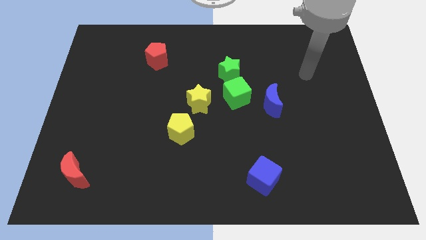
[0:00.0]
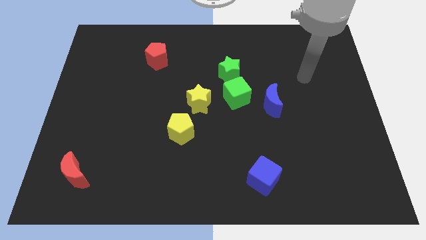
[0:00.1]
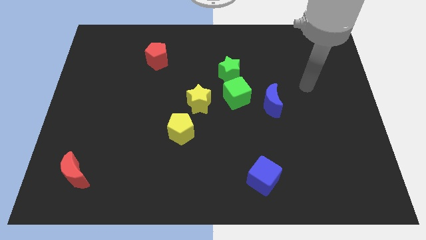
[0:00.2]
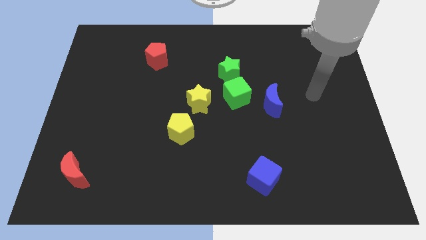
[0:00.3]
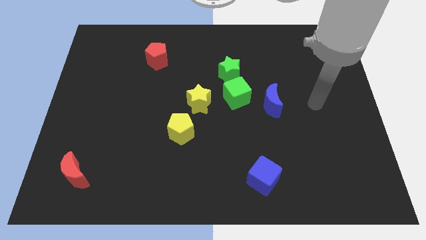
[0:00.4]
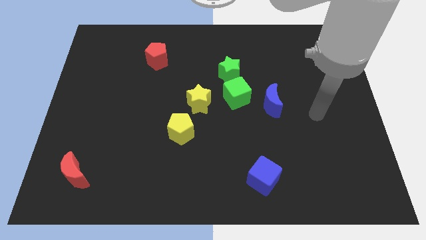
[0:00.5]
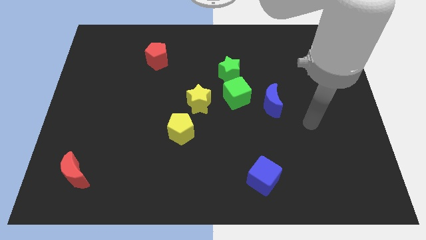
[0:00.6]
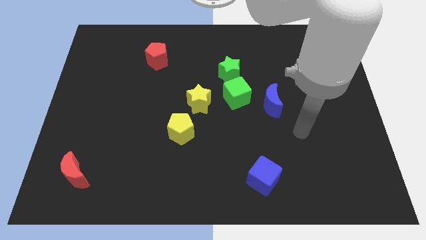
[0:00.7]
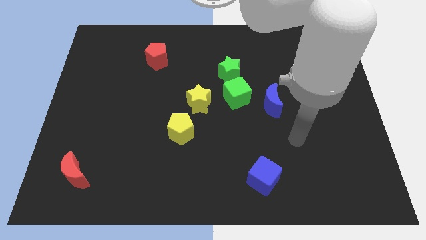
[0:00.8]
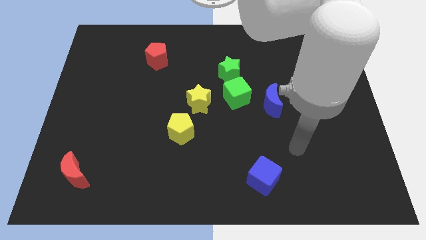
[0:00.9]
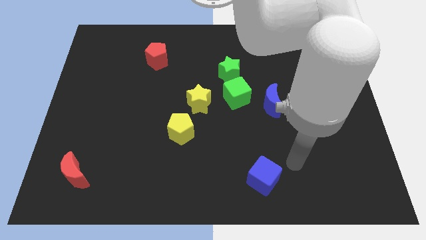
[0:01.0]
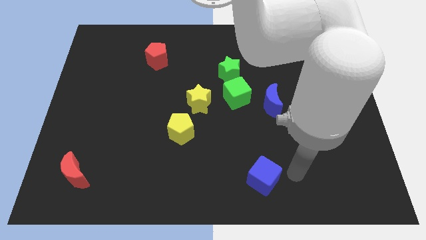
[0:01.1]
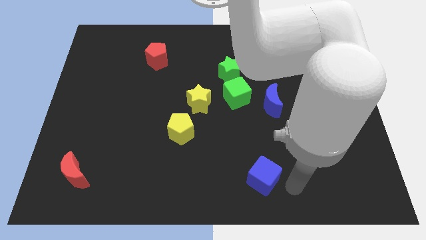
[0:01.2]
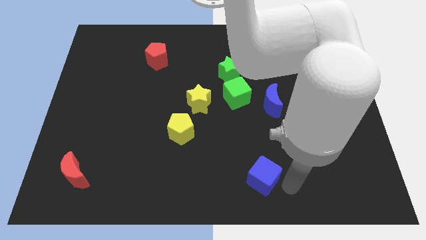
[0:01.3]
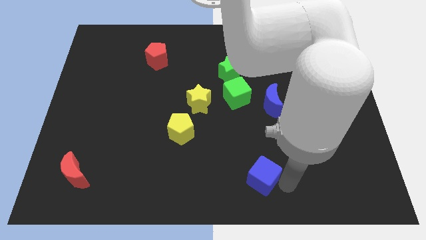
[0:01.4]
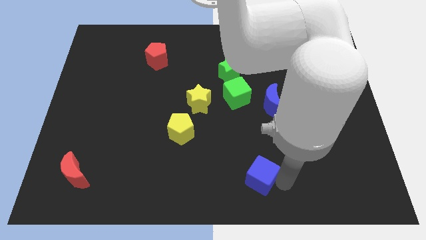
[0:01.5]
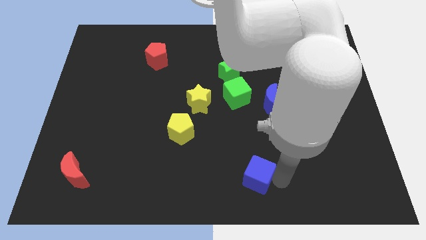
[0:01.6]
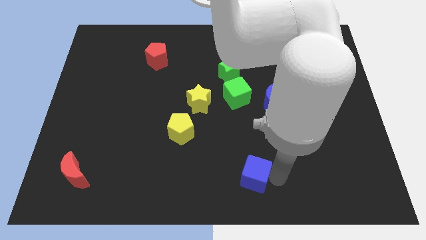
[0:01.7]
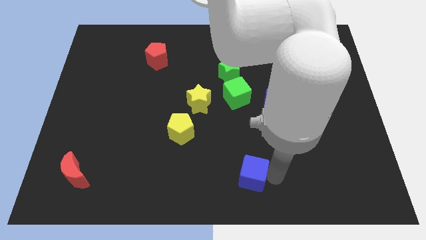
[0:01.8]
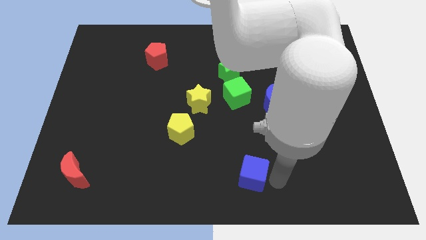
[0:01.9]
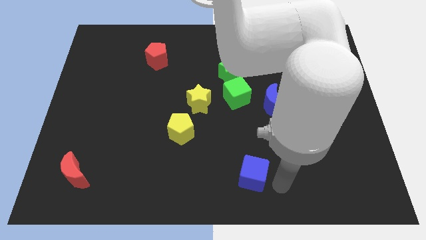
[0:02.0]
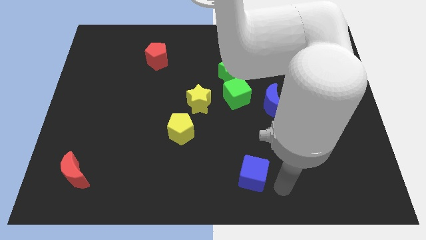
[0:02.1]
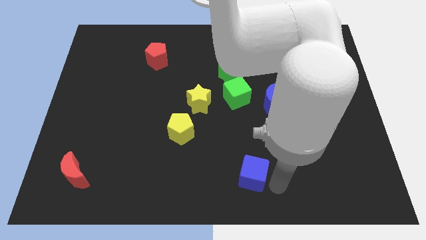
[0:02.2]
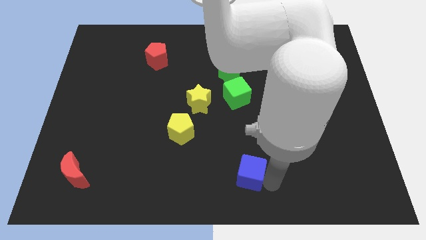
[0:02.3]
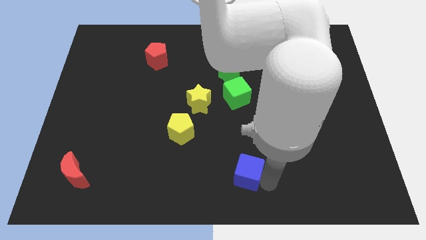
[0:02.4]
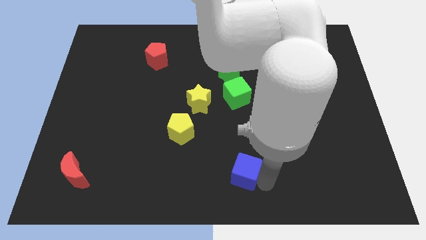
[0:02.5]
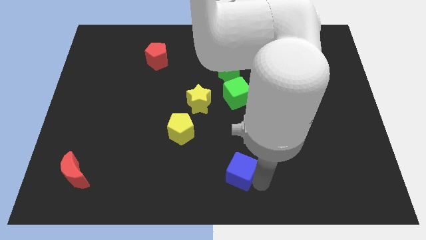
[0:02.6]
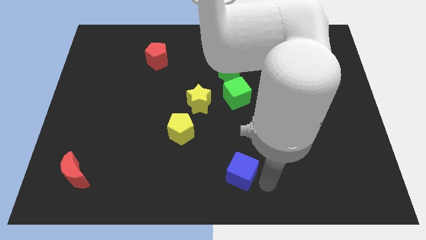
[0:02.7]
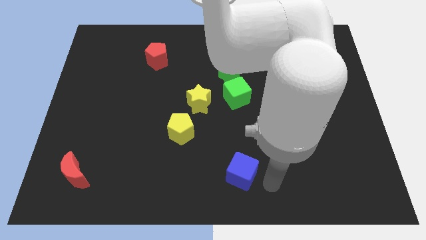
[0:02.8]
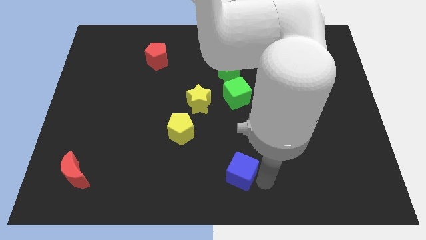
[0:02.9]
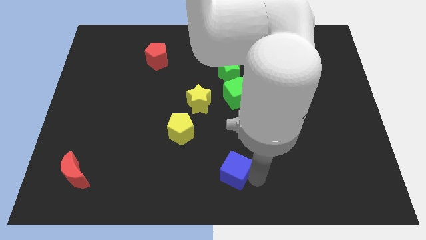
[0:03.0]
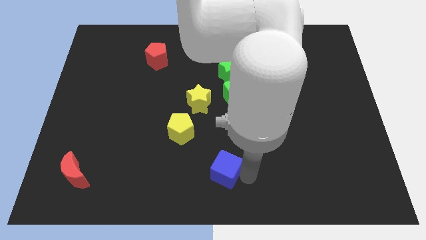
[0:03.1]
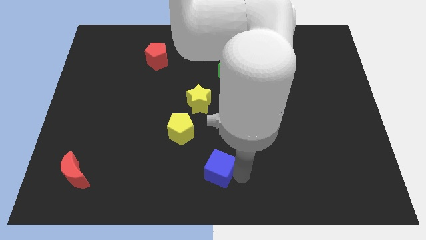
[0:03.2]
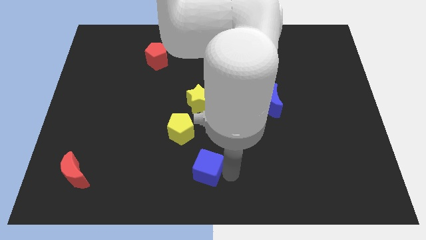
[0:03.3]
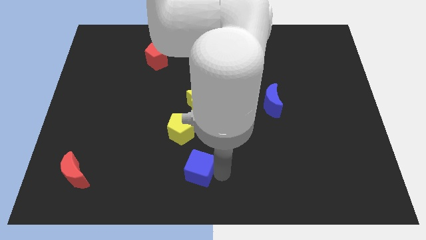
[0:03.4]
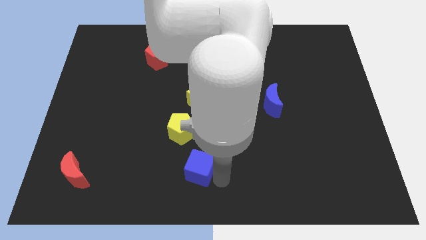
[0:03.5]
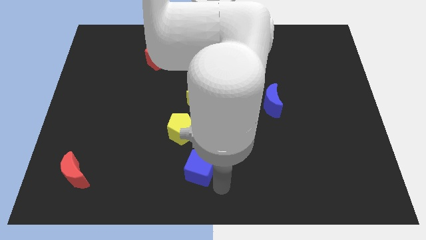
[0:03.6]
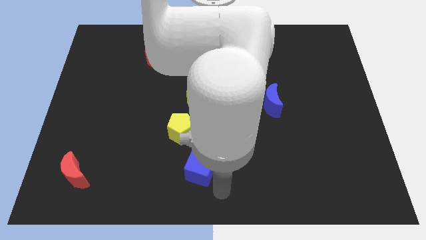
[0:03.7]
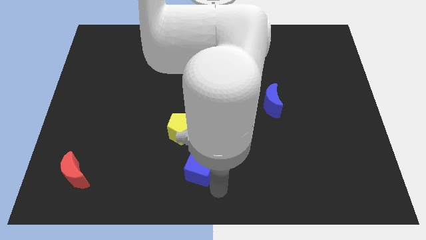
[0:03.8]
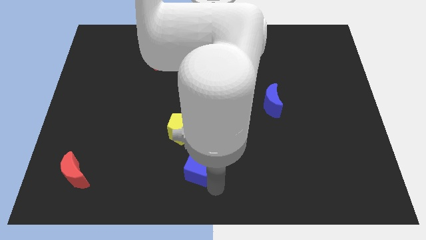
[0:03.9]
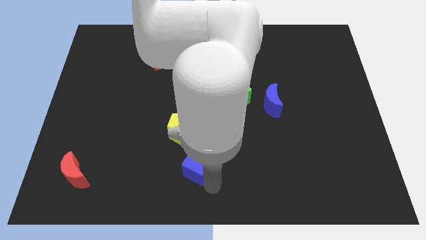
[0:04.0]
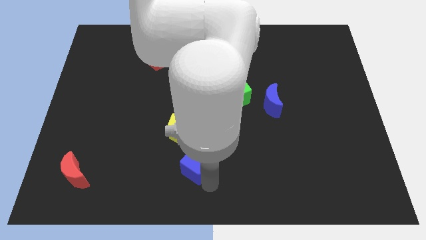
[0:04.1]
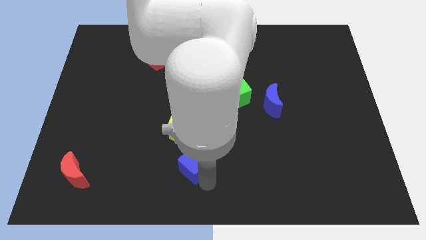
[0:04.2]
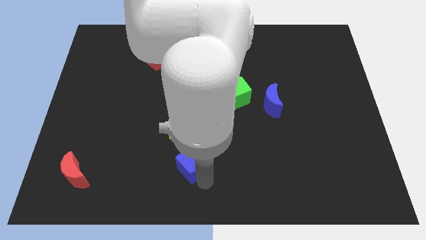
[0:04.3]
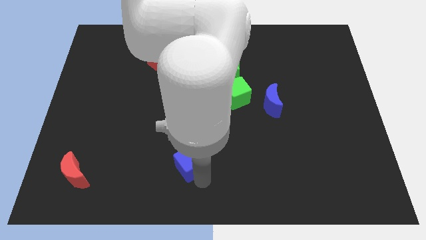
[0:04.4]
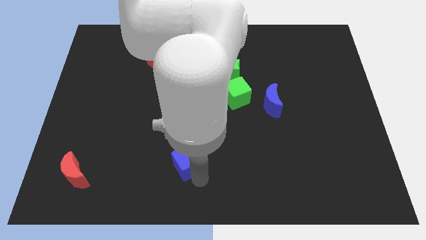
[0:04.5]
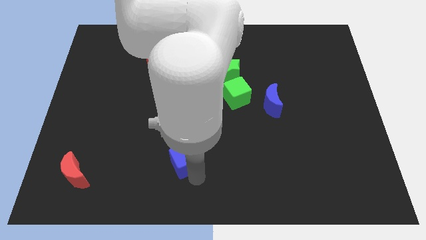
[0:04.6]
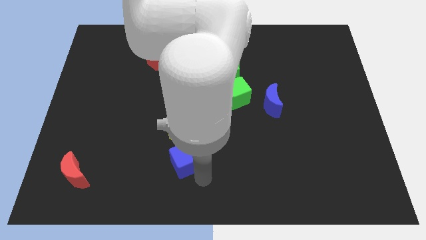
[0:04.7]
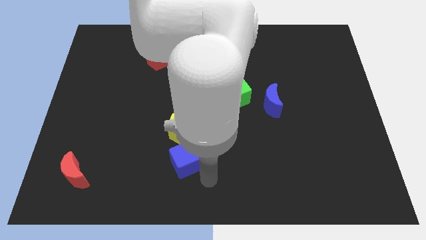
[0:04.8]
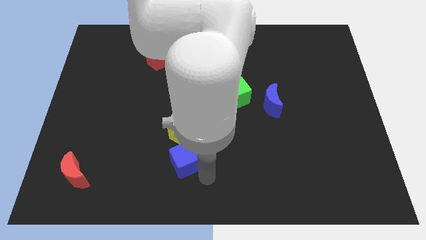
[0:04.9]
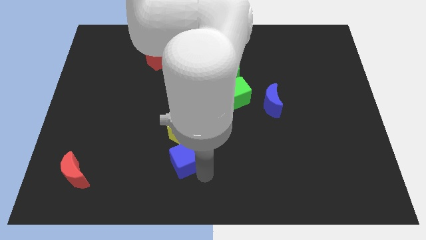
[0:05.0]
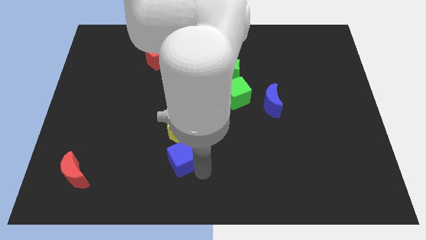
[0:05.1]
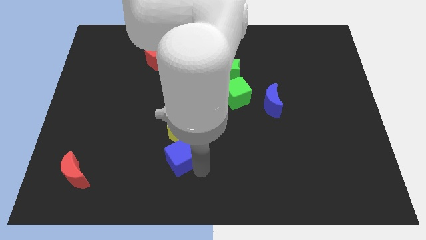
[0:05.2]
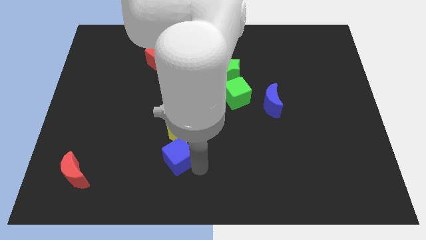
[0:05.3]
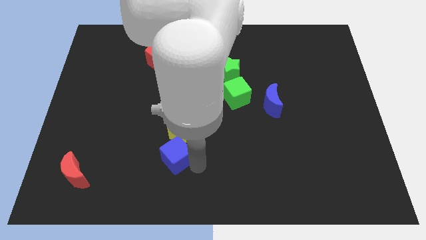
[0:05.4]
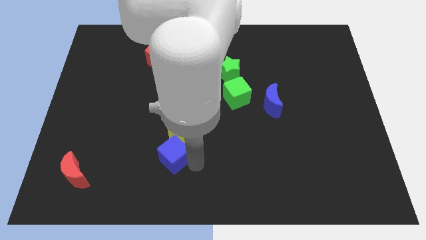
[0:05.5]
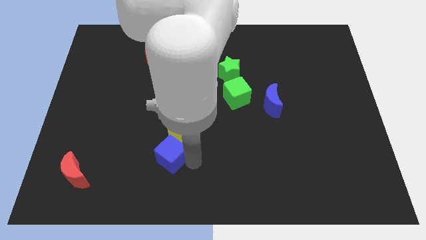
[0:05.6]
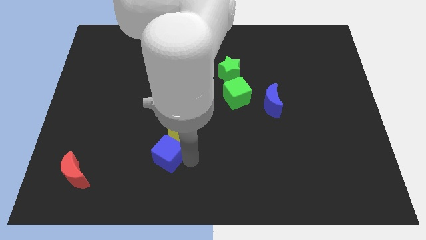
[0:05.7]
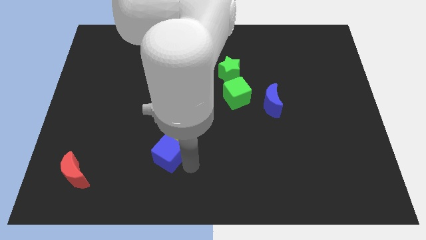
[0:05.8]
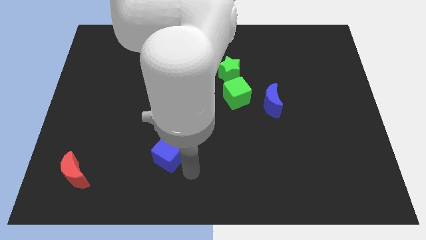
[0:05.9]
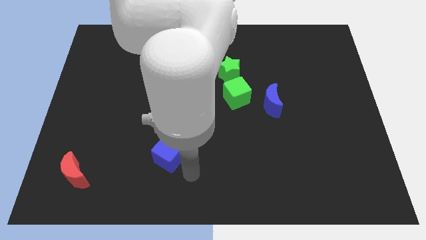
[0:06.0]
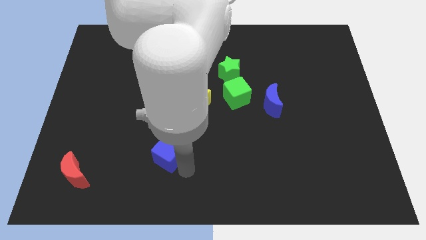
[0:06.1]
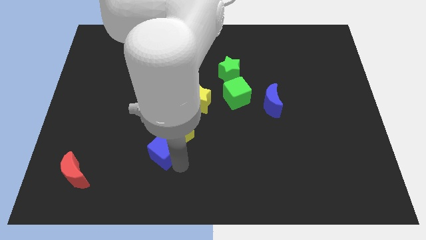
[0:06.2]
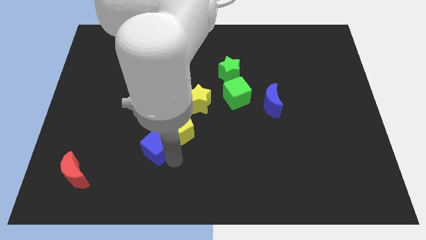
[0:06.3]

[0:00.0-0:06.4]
slide the blue cube left of the yellow pentagon

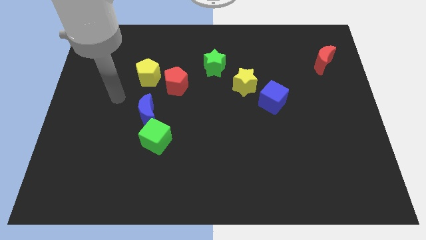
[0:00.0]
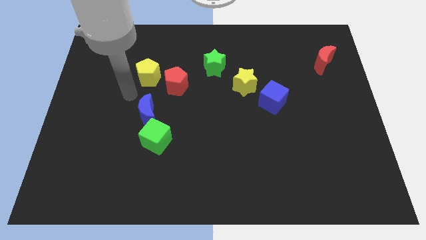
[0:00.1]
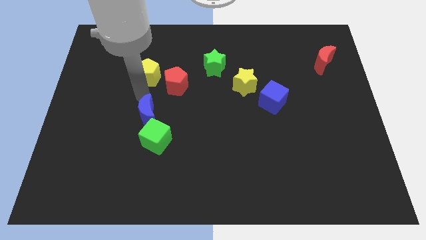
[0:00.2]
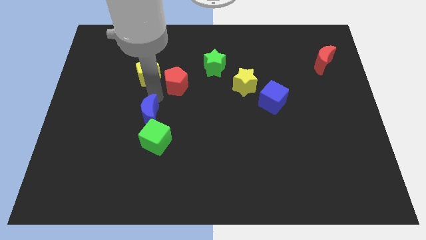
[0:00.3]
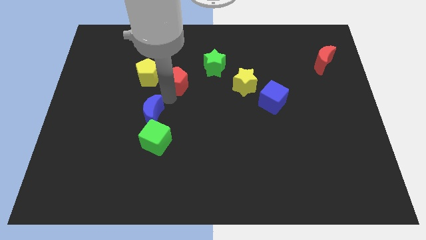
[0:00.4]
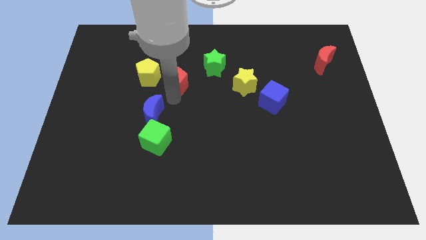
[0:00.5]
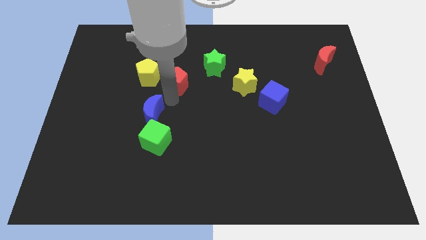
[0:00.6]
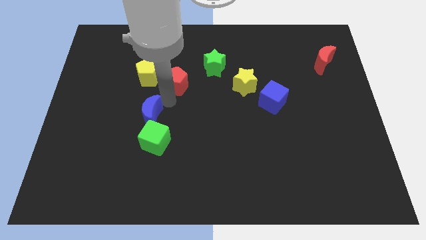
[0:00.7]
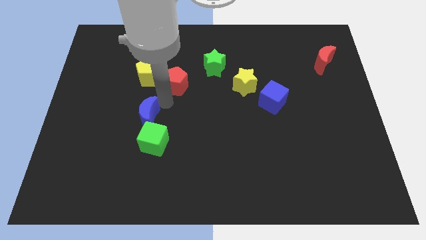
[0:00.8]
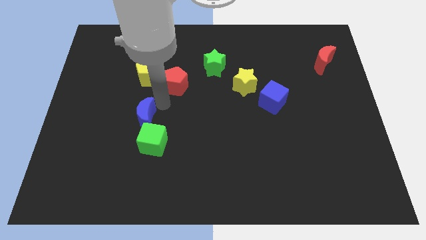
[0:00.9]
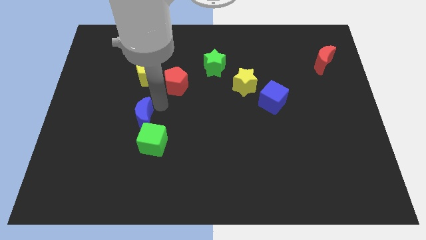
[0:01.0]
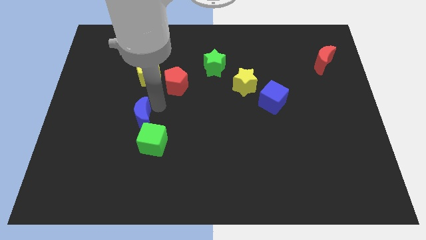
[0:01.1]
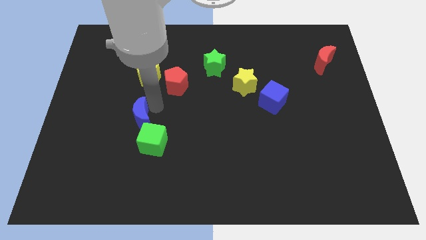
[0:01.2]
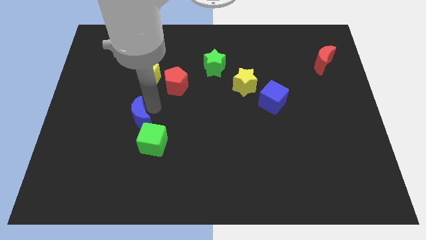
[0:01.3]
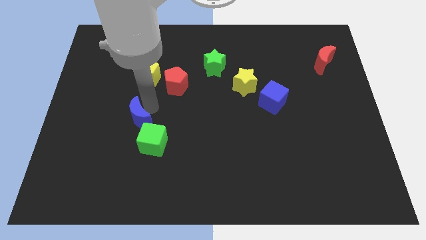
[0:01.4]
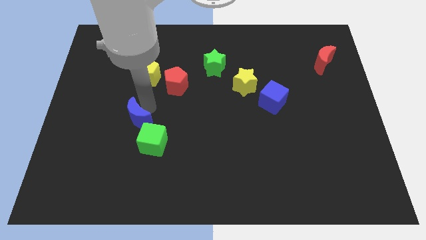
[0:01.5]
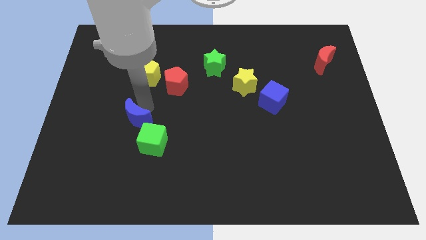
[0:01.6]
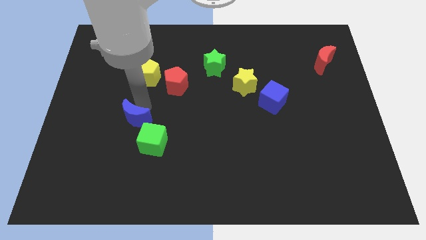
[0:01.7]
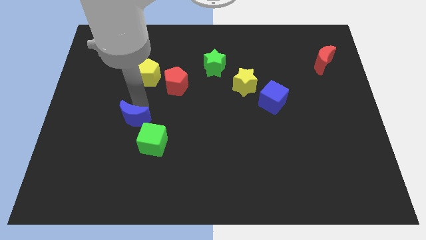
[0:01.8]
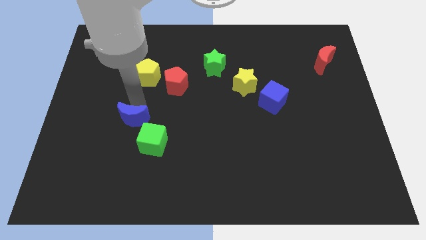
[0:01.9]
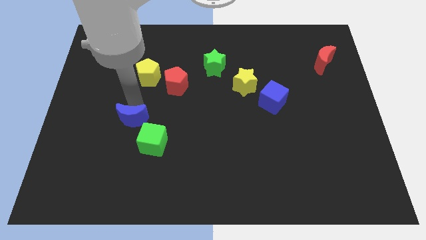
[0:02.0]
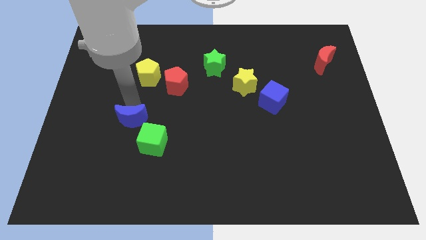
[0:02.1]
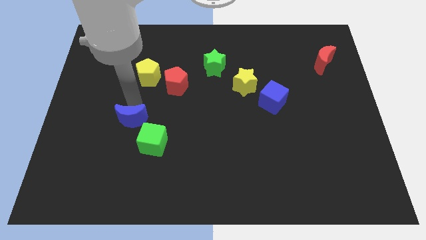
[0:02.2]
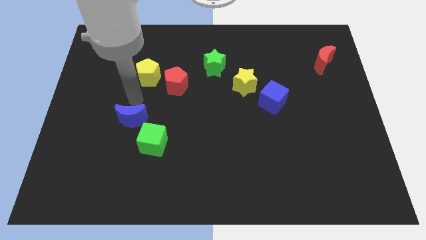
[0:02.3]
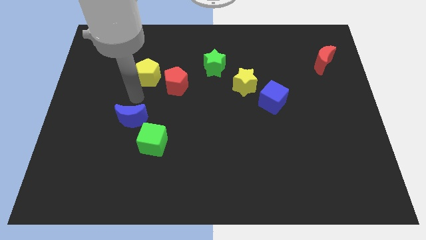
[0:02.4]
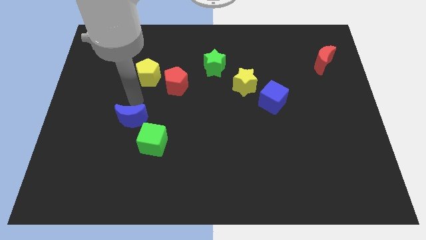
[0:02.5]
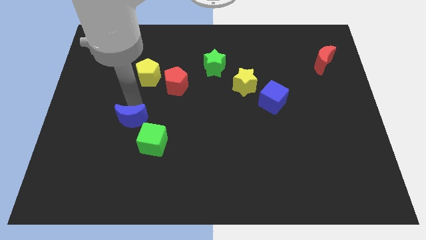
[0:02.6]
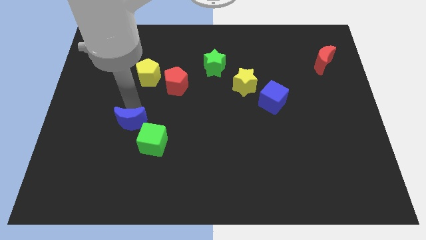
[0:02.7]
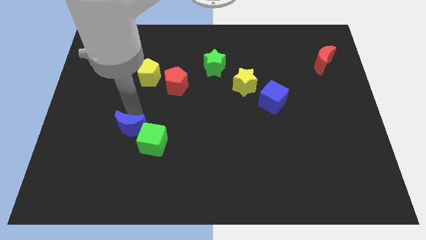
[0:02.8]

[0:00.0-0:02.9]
push the blue moon just left of the green cube
